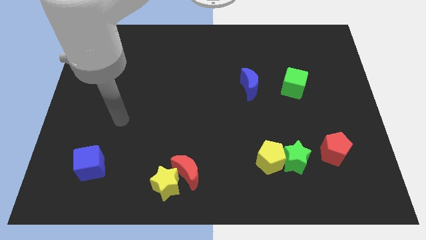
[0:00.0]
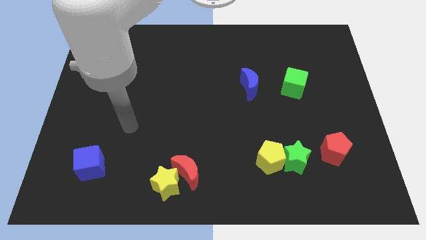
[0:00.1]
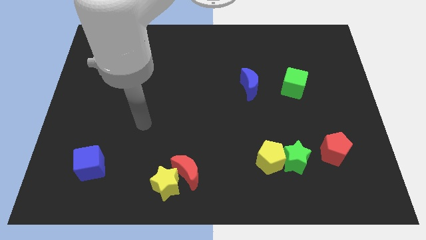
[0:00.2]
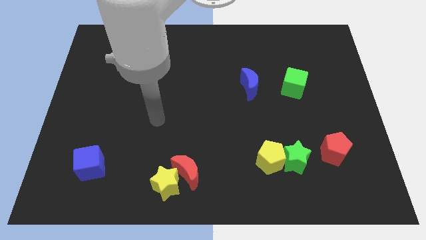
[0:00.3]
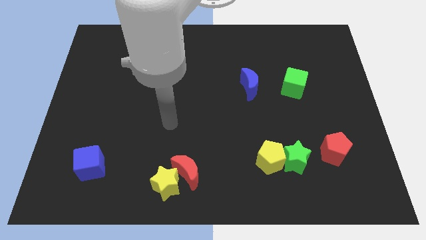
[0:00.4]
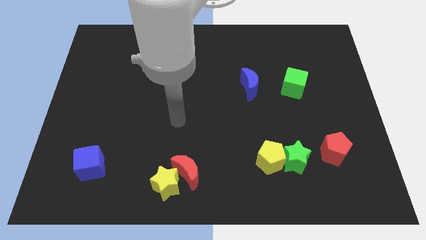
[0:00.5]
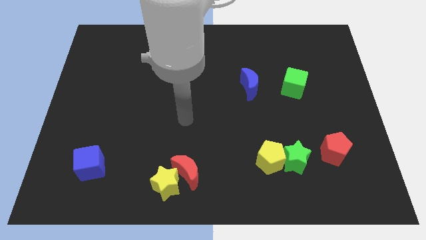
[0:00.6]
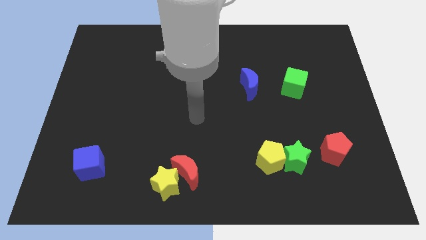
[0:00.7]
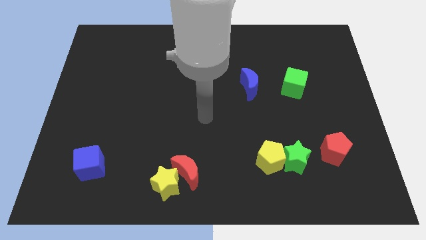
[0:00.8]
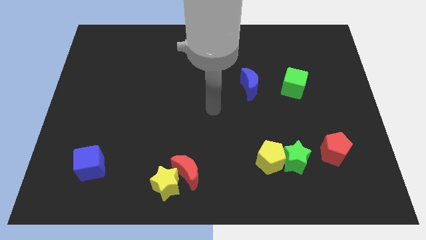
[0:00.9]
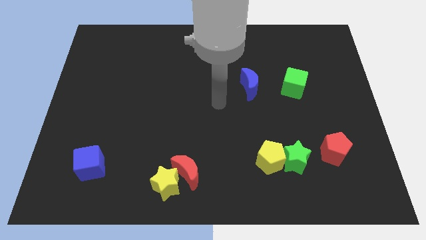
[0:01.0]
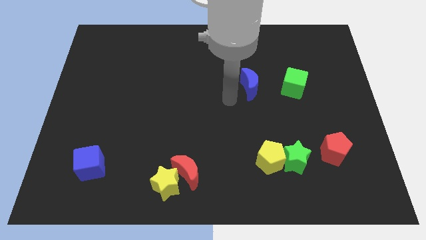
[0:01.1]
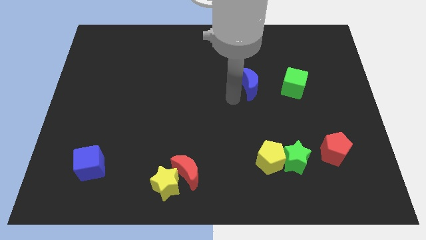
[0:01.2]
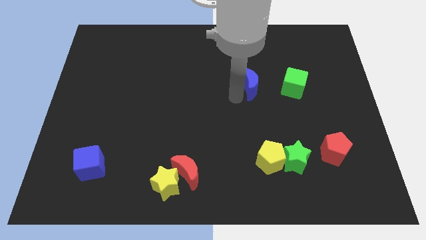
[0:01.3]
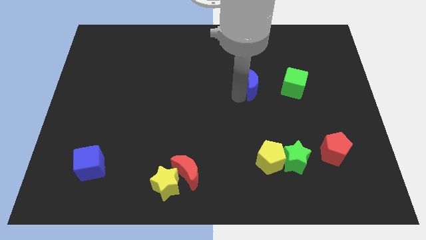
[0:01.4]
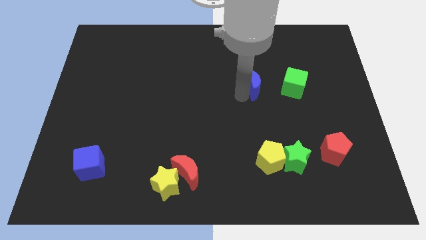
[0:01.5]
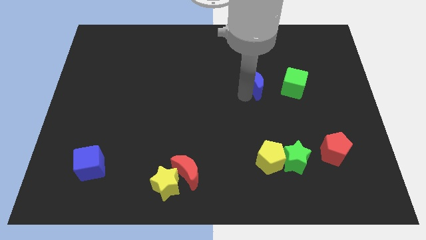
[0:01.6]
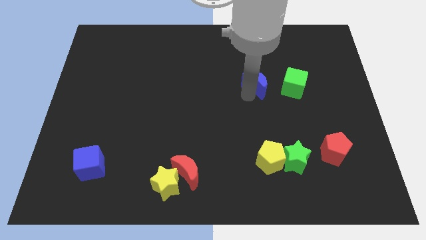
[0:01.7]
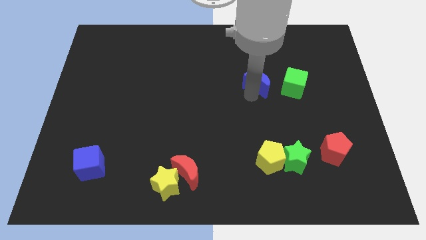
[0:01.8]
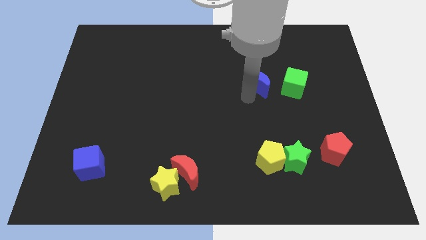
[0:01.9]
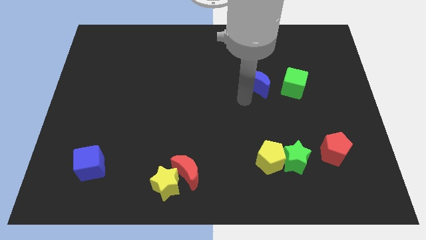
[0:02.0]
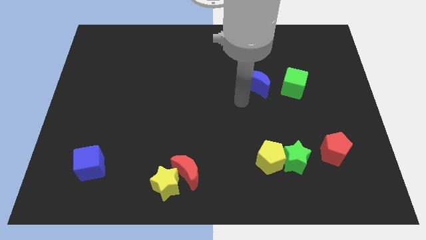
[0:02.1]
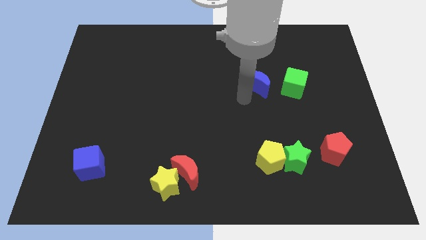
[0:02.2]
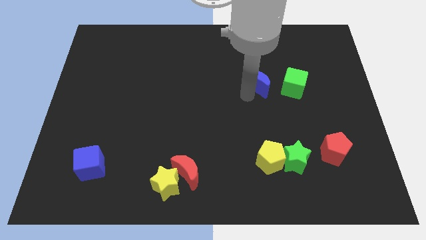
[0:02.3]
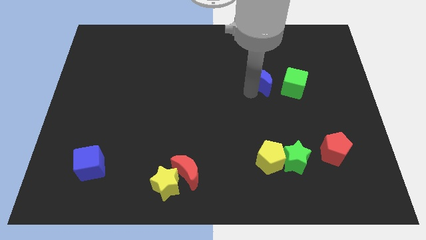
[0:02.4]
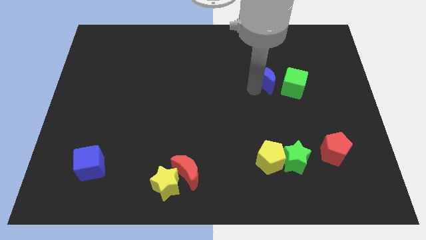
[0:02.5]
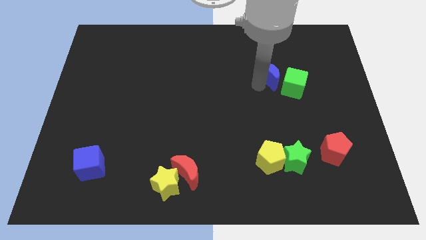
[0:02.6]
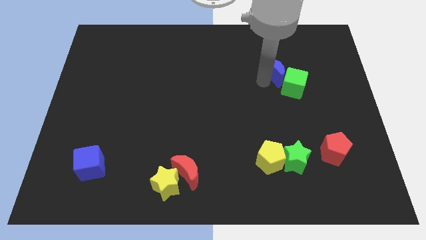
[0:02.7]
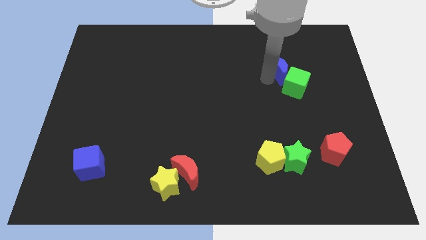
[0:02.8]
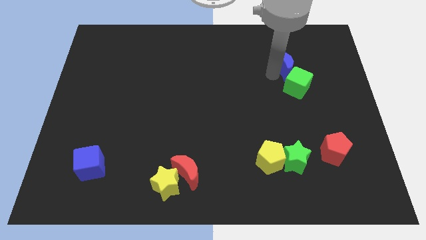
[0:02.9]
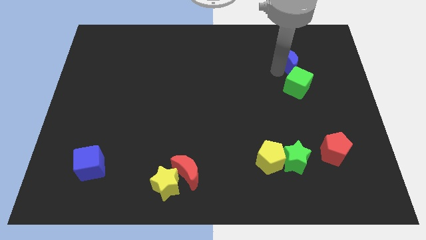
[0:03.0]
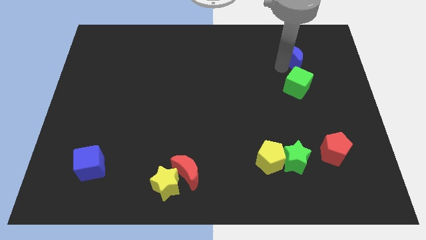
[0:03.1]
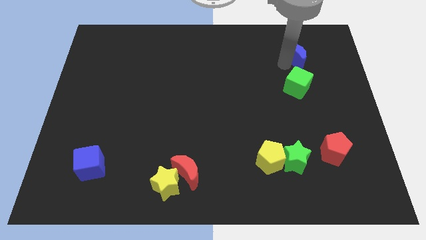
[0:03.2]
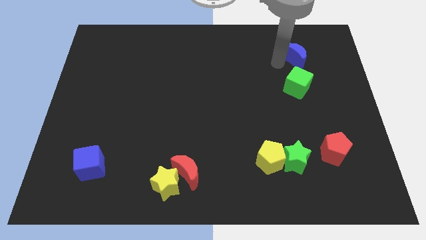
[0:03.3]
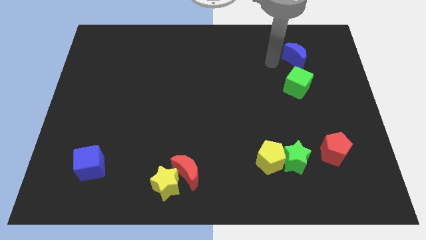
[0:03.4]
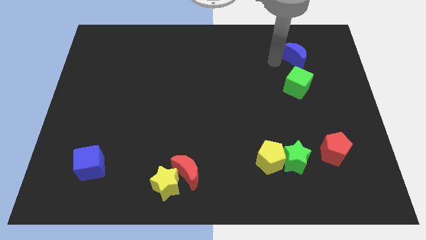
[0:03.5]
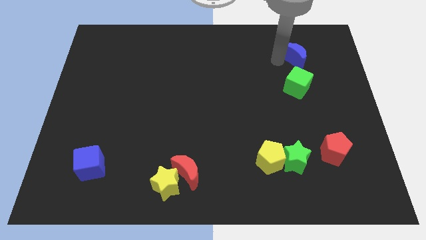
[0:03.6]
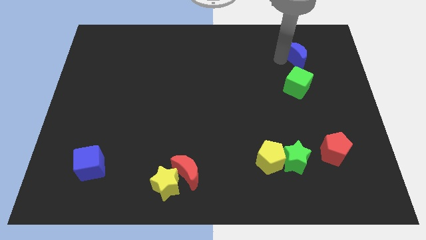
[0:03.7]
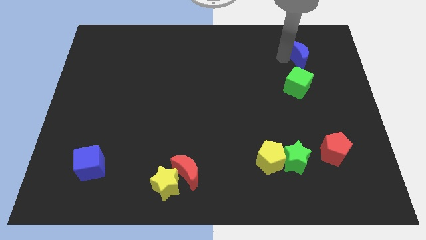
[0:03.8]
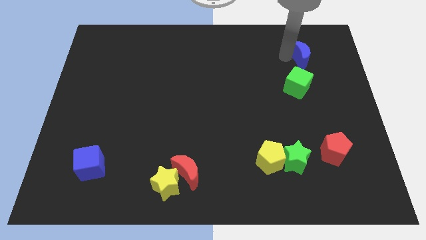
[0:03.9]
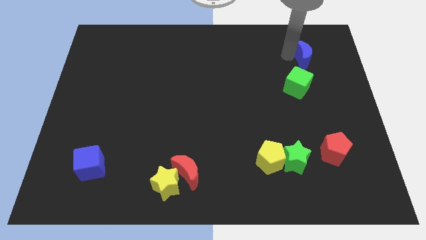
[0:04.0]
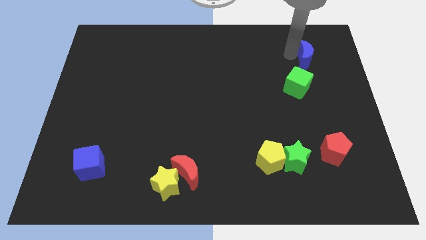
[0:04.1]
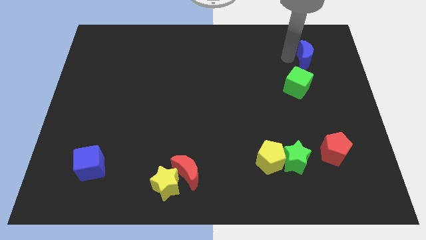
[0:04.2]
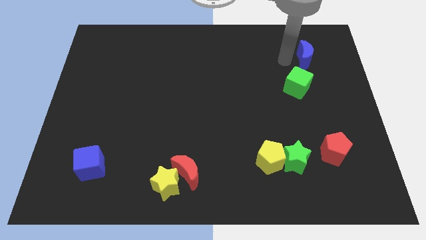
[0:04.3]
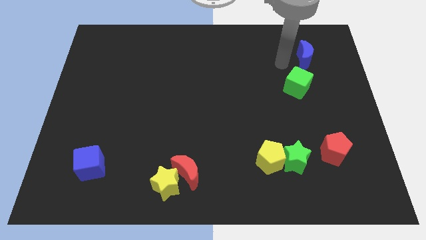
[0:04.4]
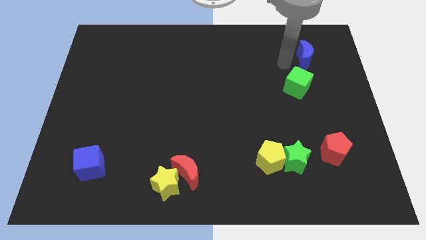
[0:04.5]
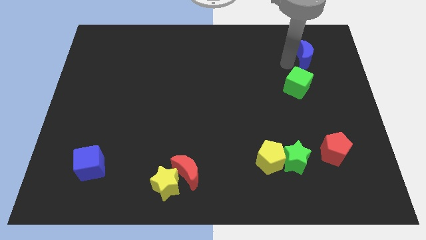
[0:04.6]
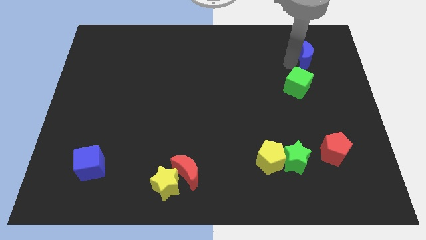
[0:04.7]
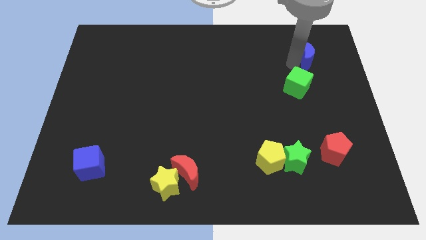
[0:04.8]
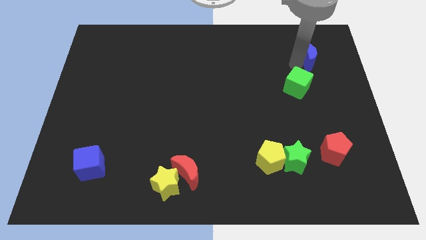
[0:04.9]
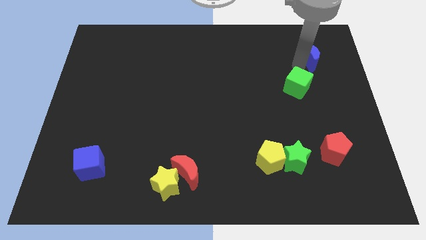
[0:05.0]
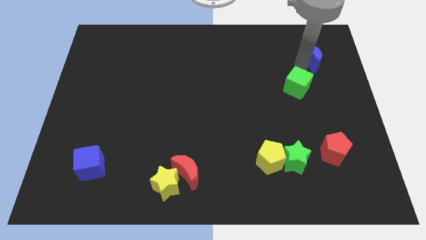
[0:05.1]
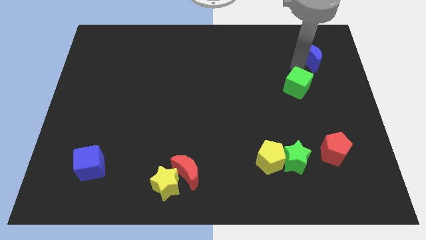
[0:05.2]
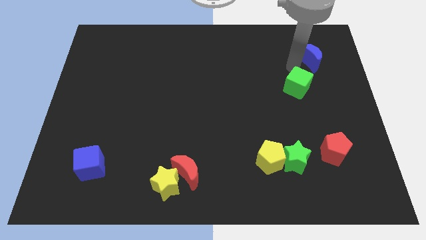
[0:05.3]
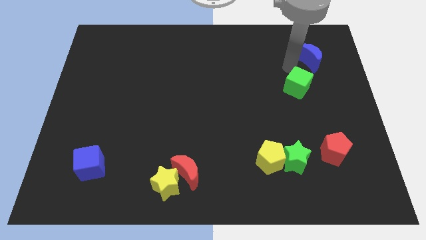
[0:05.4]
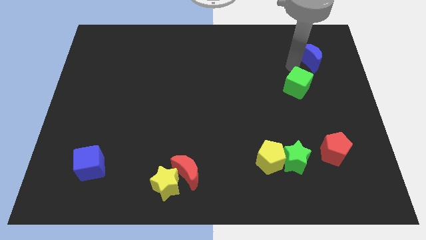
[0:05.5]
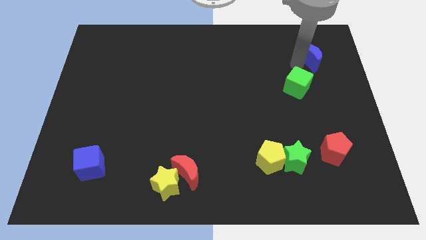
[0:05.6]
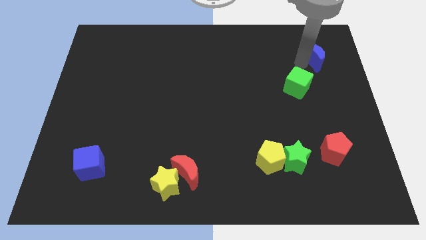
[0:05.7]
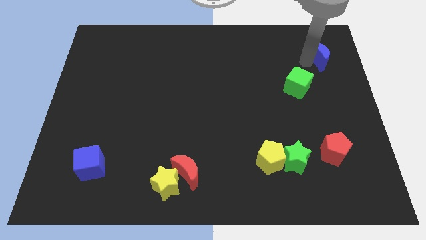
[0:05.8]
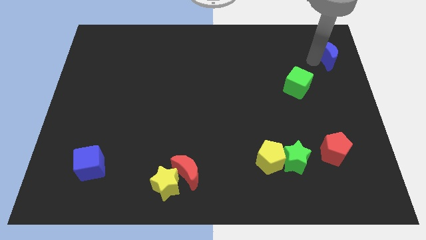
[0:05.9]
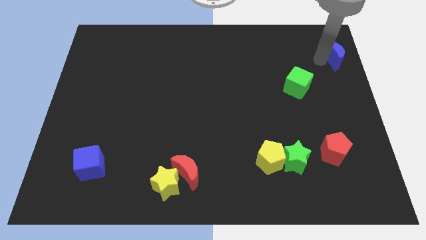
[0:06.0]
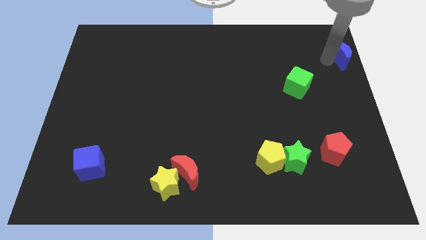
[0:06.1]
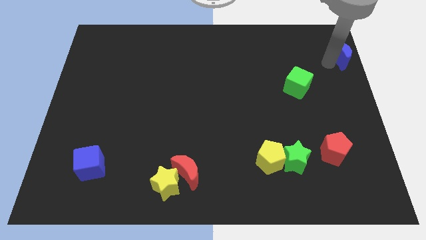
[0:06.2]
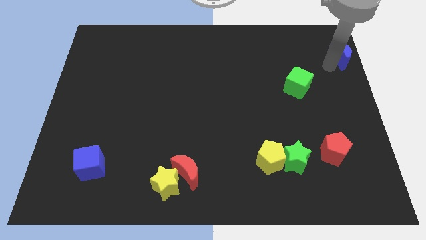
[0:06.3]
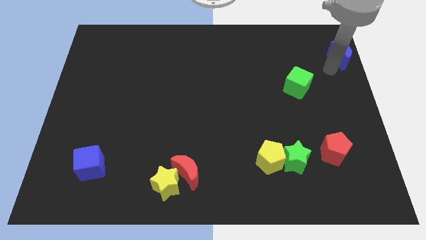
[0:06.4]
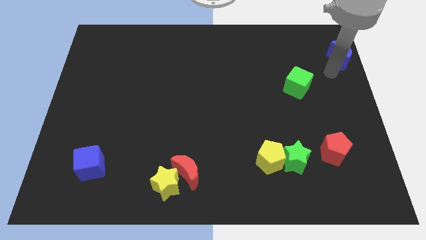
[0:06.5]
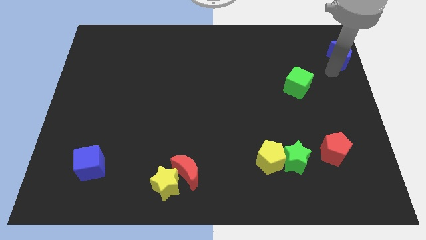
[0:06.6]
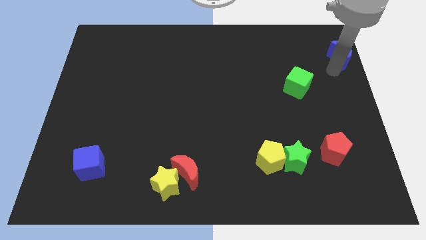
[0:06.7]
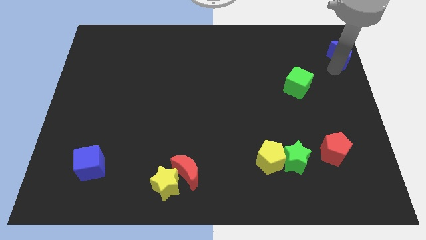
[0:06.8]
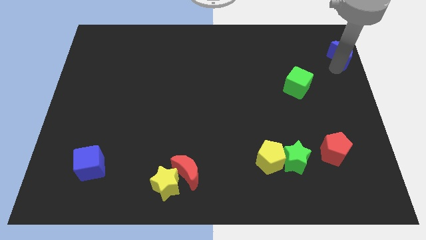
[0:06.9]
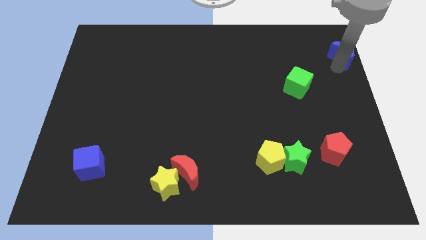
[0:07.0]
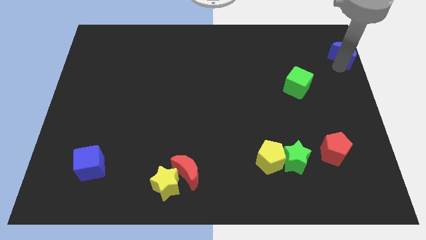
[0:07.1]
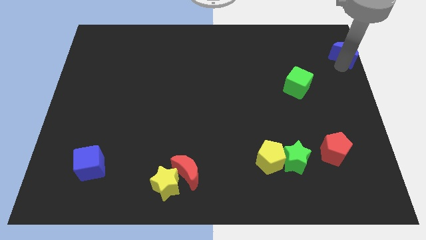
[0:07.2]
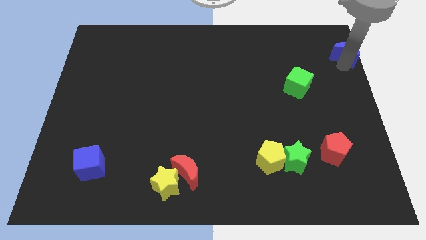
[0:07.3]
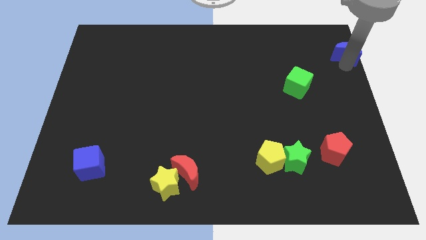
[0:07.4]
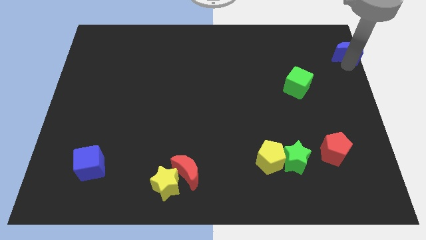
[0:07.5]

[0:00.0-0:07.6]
push the blue moon to the top right of the board
